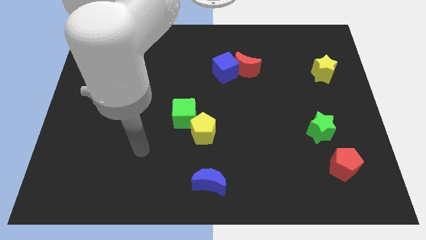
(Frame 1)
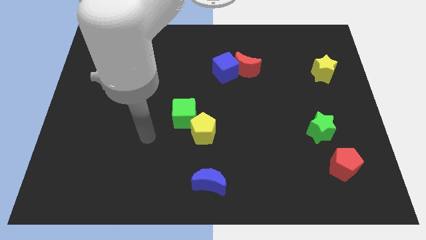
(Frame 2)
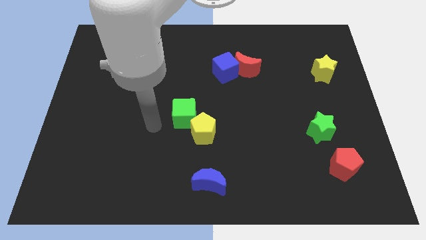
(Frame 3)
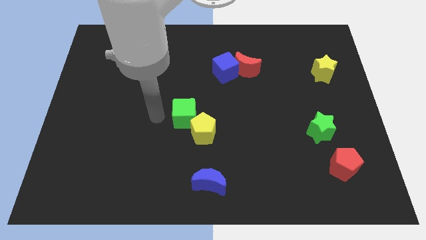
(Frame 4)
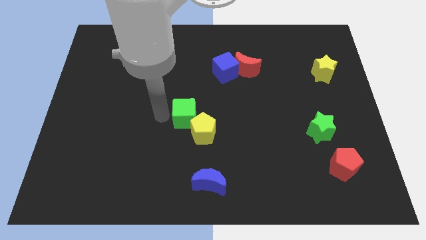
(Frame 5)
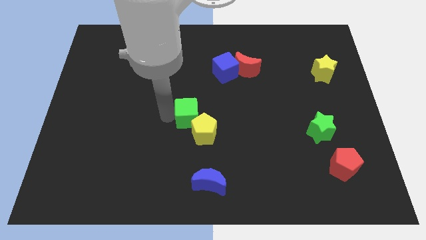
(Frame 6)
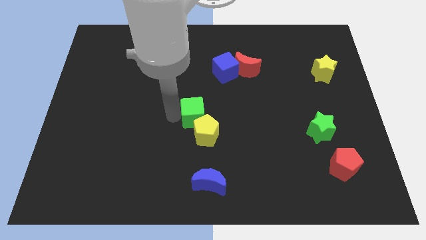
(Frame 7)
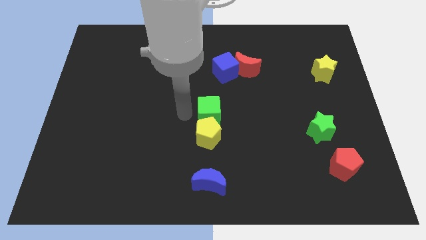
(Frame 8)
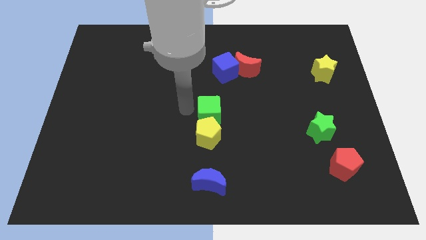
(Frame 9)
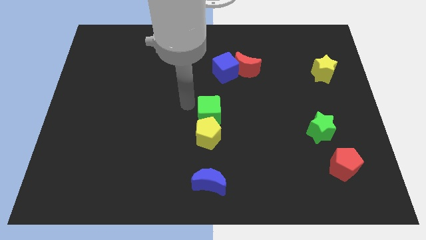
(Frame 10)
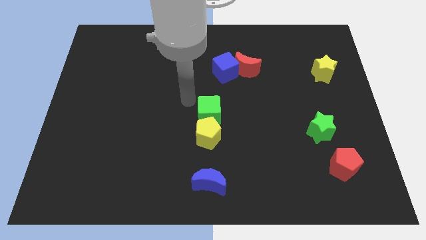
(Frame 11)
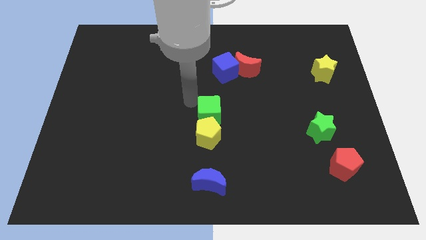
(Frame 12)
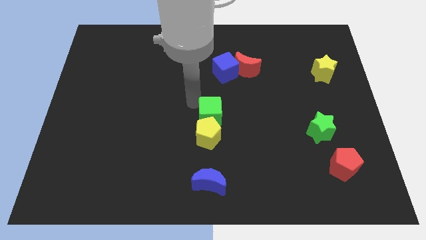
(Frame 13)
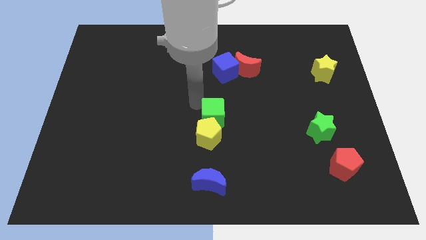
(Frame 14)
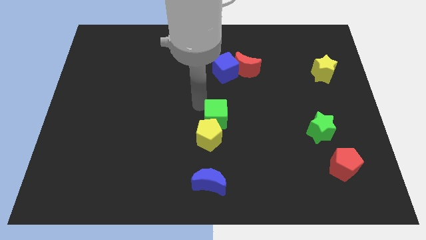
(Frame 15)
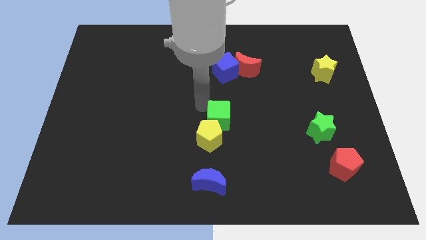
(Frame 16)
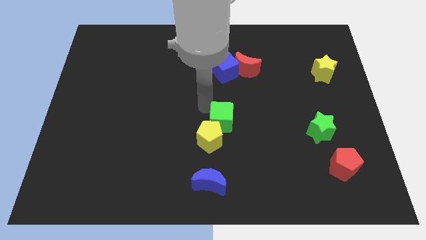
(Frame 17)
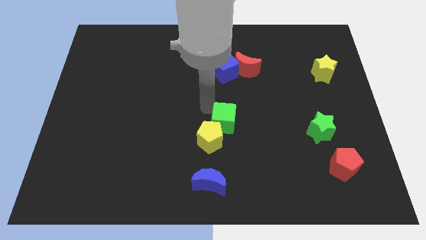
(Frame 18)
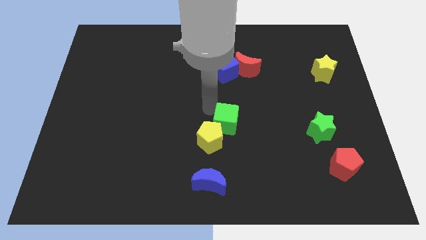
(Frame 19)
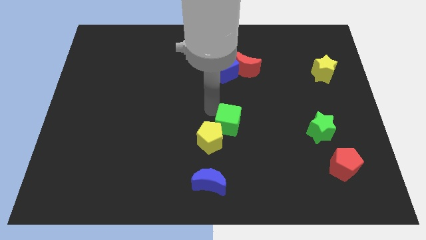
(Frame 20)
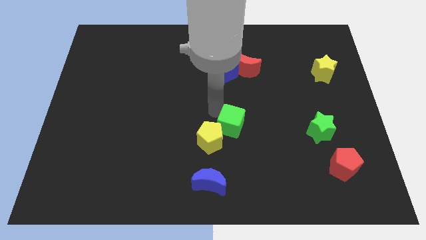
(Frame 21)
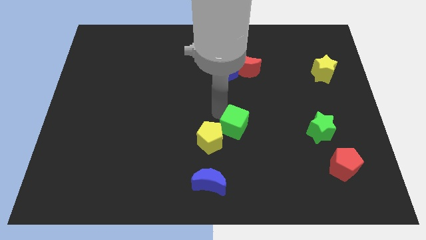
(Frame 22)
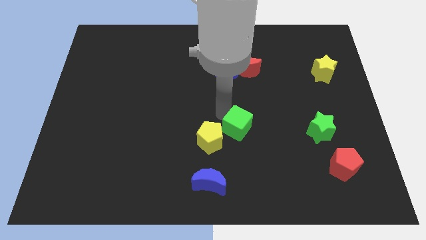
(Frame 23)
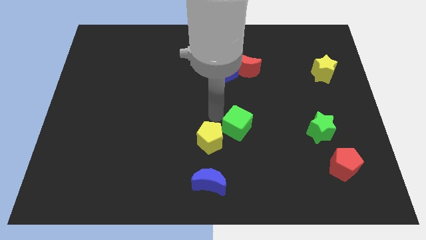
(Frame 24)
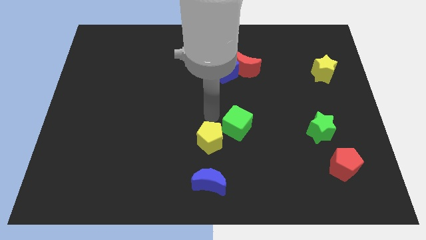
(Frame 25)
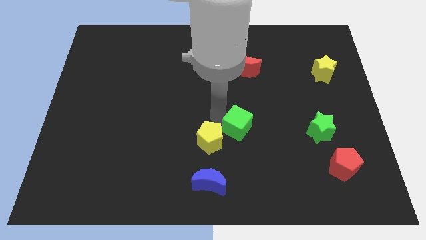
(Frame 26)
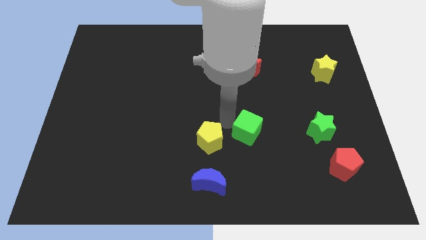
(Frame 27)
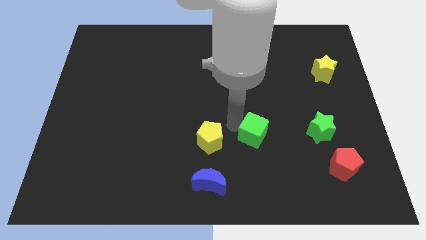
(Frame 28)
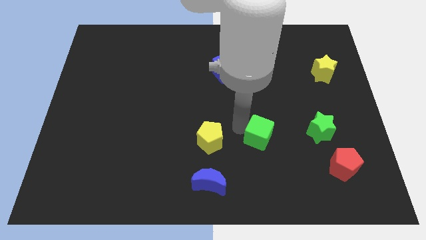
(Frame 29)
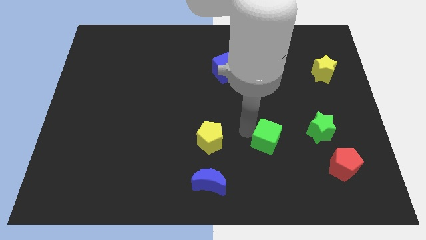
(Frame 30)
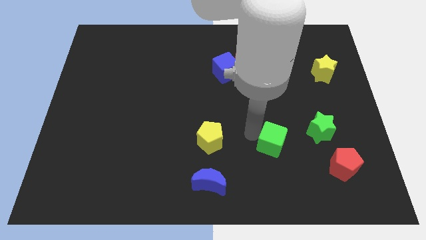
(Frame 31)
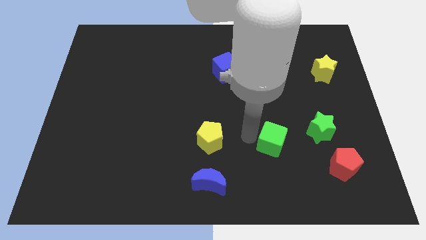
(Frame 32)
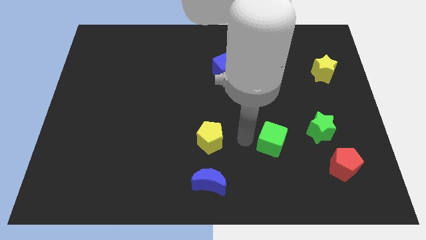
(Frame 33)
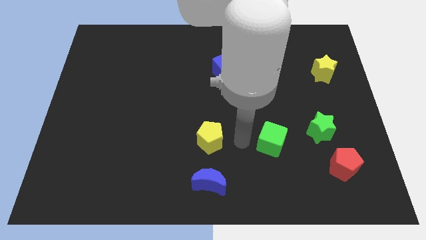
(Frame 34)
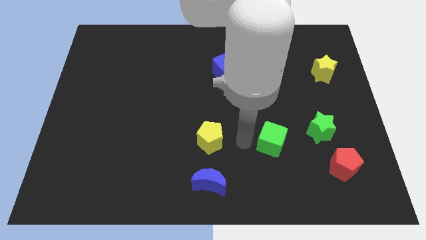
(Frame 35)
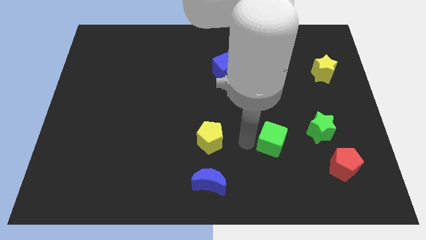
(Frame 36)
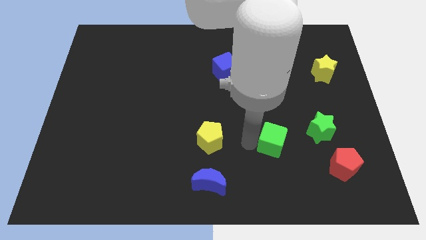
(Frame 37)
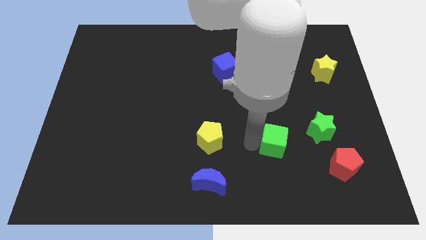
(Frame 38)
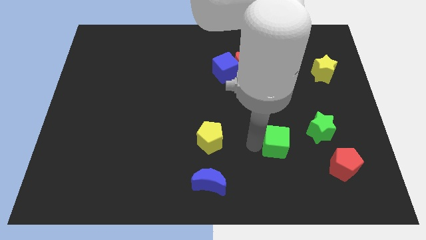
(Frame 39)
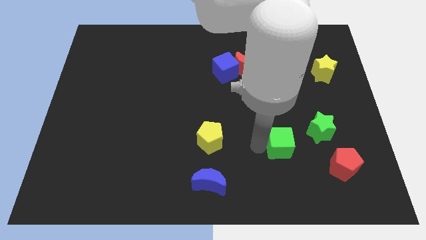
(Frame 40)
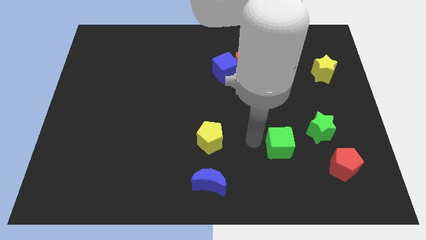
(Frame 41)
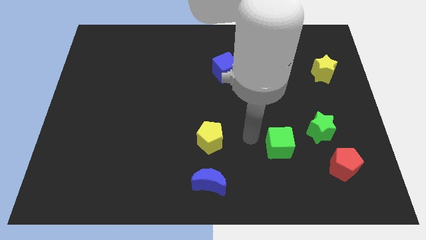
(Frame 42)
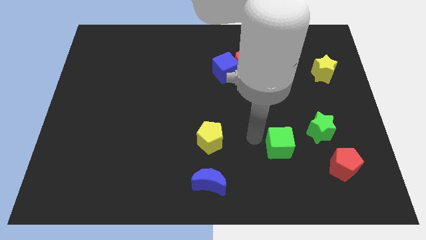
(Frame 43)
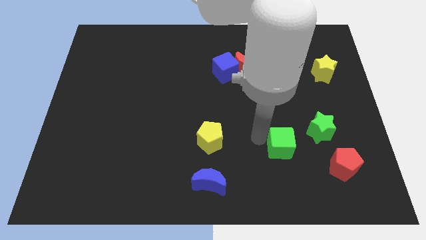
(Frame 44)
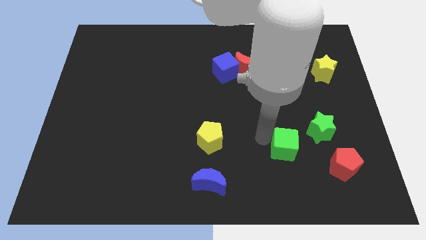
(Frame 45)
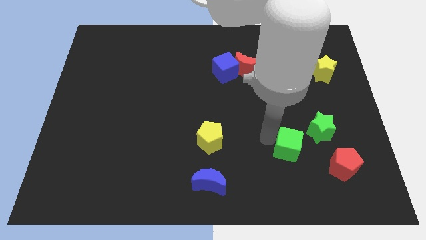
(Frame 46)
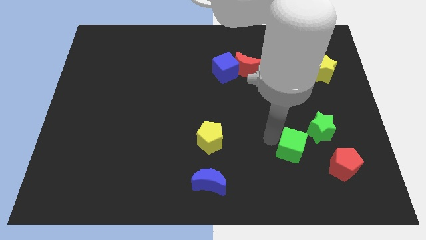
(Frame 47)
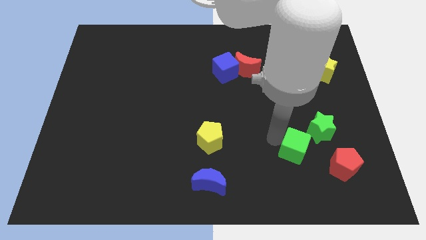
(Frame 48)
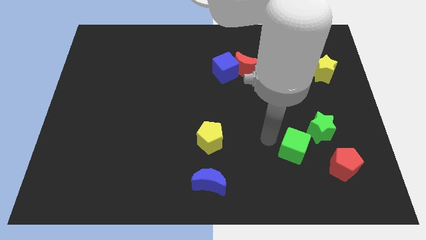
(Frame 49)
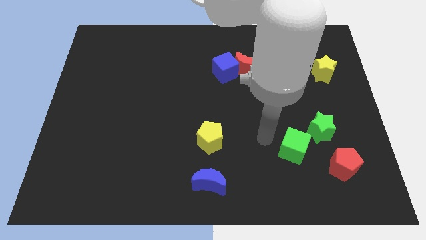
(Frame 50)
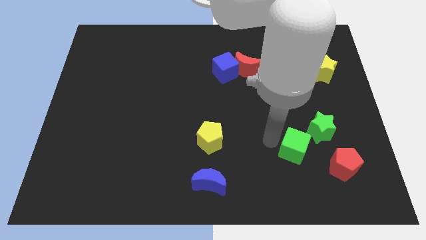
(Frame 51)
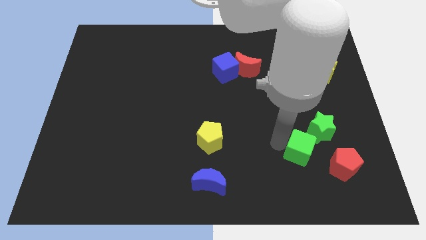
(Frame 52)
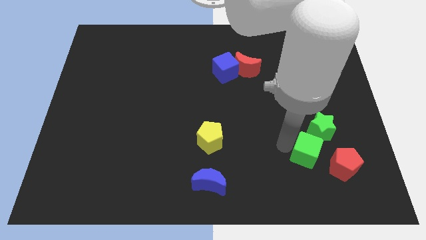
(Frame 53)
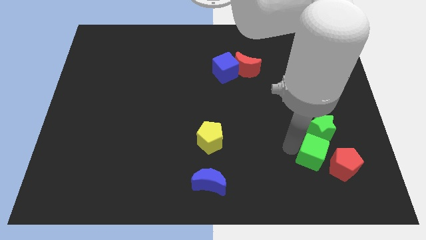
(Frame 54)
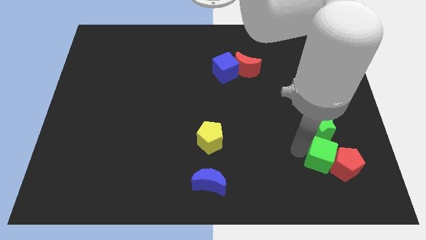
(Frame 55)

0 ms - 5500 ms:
move the green cube to the red pentagon

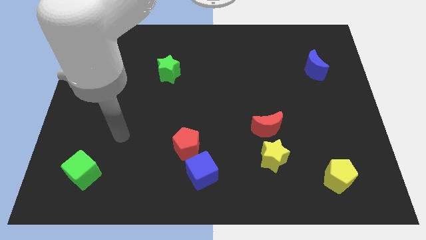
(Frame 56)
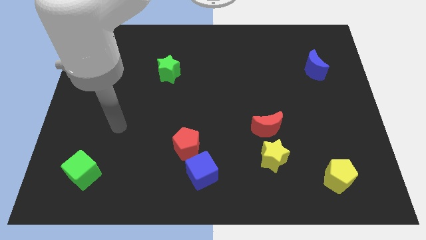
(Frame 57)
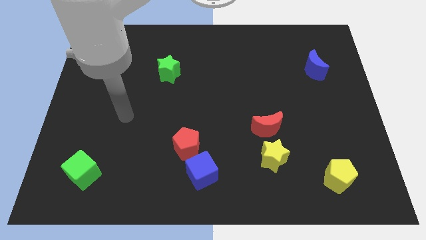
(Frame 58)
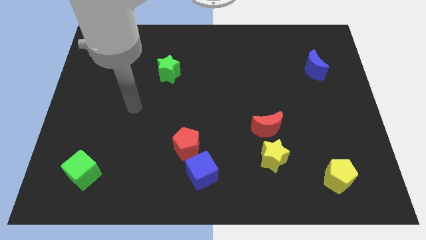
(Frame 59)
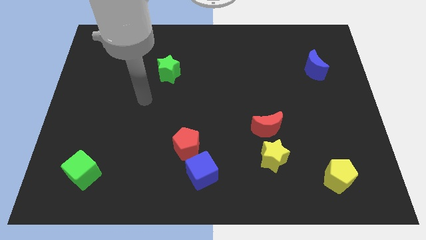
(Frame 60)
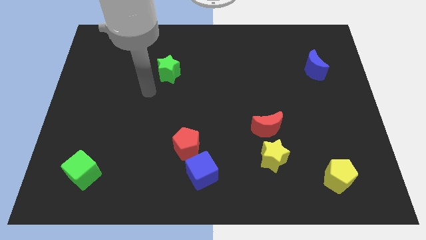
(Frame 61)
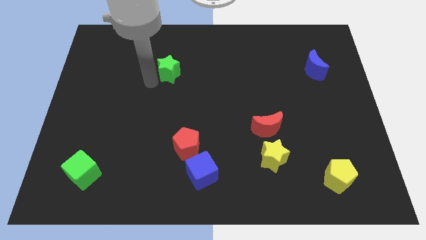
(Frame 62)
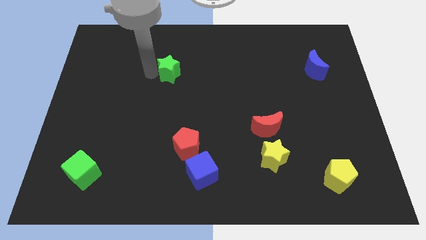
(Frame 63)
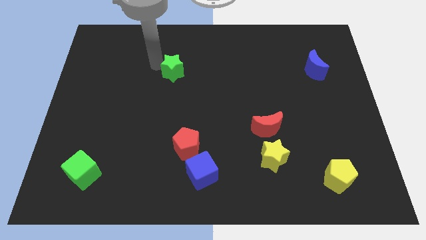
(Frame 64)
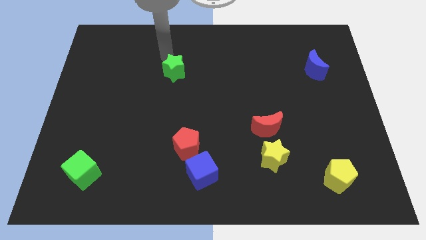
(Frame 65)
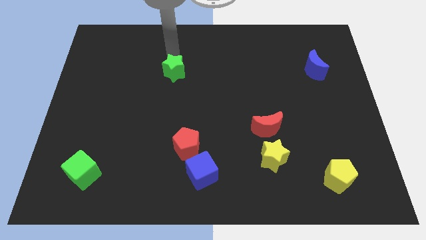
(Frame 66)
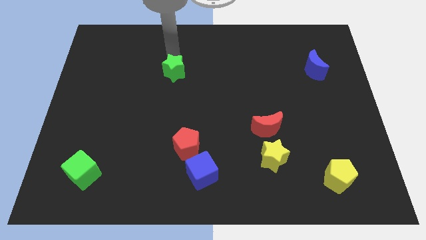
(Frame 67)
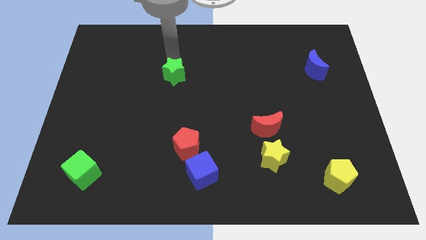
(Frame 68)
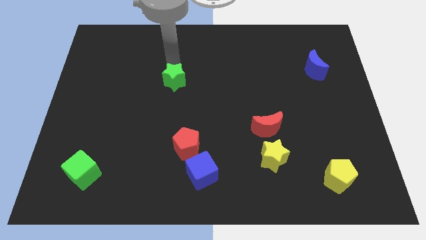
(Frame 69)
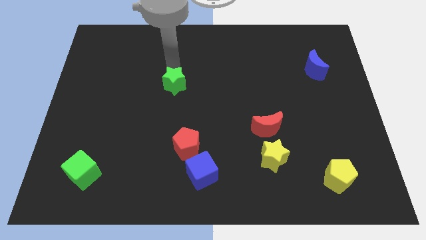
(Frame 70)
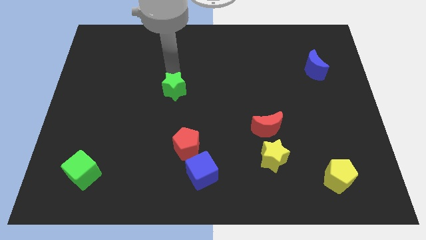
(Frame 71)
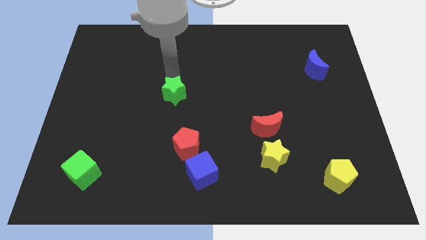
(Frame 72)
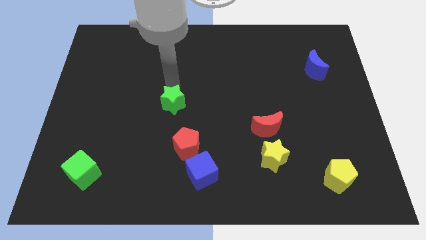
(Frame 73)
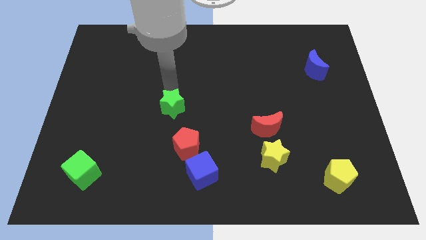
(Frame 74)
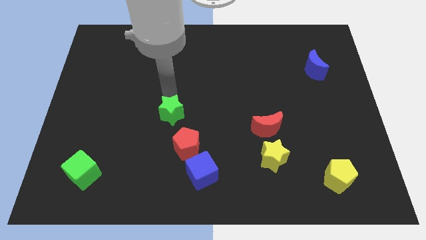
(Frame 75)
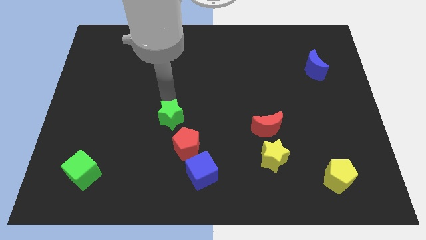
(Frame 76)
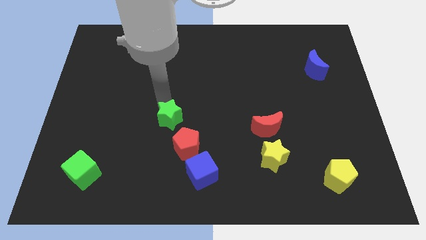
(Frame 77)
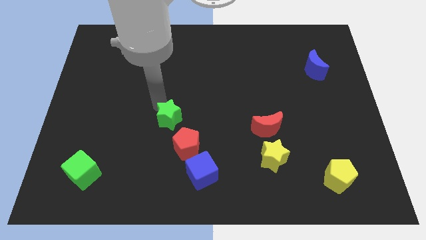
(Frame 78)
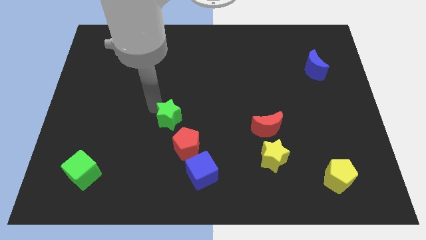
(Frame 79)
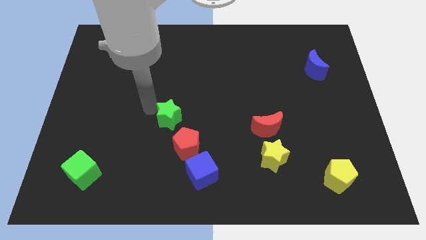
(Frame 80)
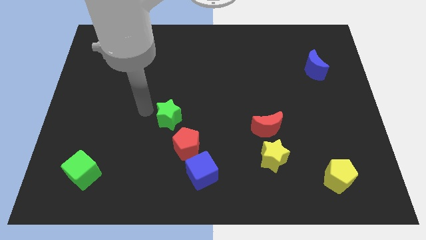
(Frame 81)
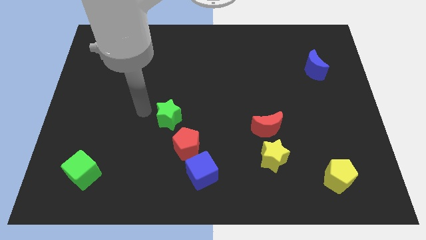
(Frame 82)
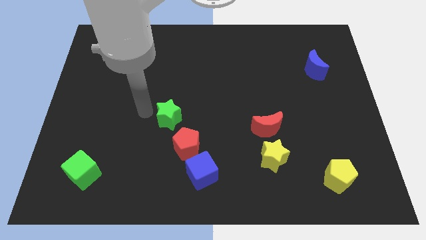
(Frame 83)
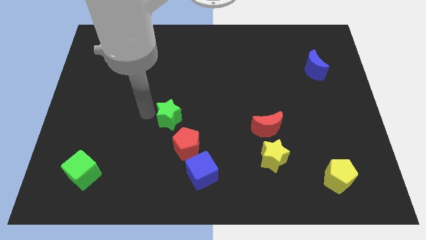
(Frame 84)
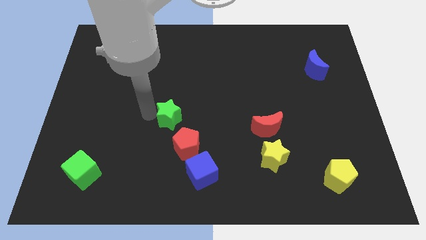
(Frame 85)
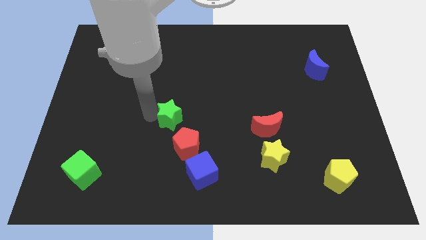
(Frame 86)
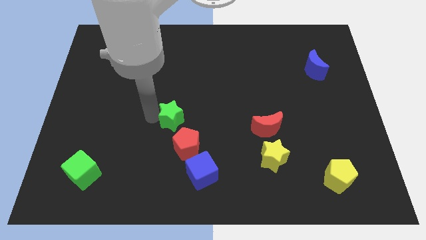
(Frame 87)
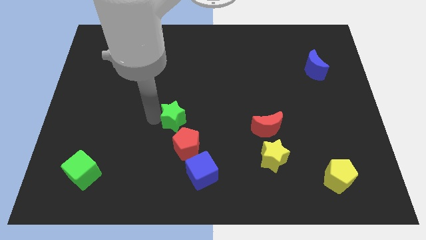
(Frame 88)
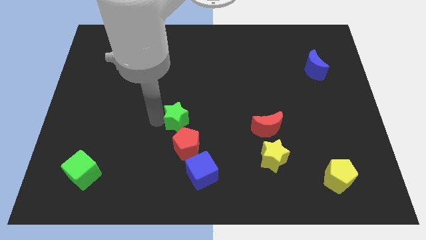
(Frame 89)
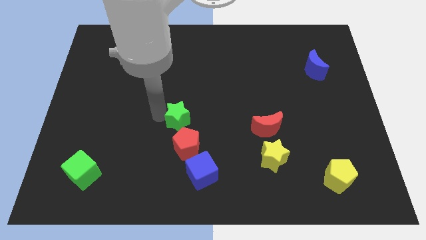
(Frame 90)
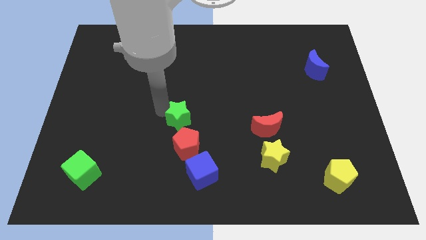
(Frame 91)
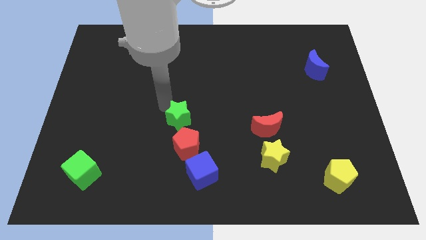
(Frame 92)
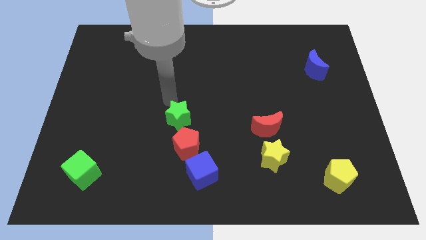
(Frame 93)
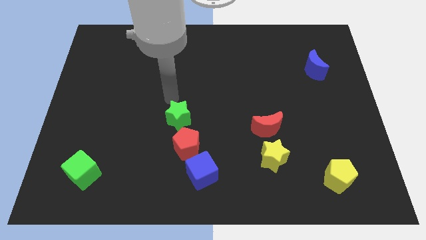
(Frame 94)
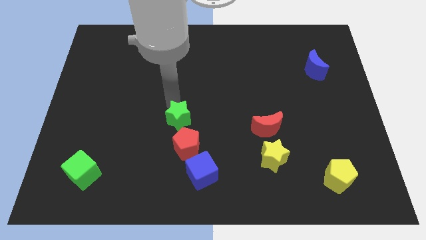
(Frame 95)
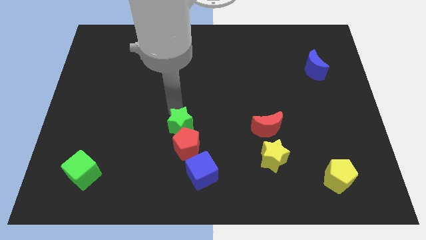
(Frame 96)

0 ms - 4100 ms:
put the green star towards the red pentagon
